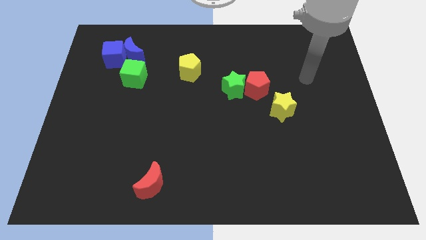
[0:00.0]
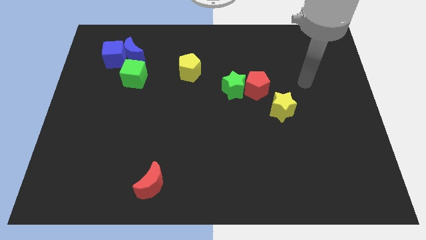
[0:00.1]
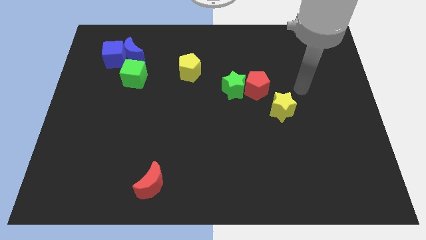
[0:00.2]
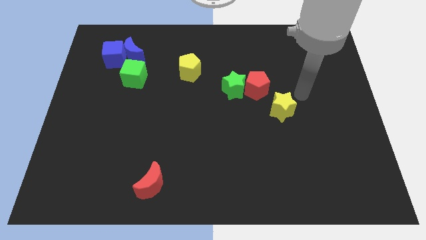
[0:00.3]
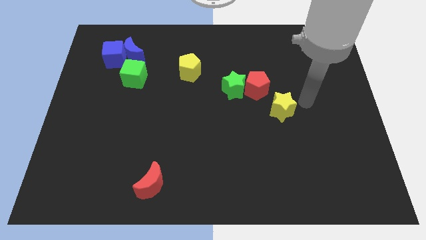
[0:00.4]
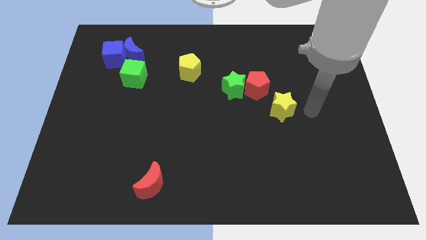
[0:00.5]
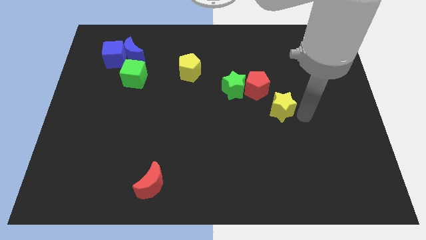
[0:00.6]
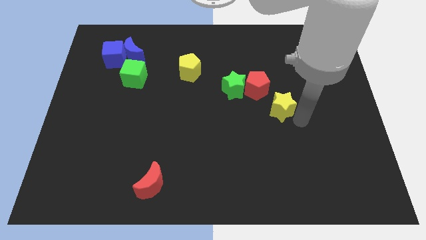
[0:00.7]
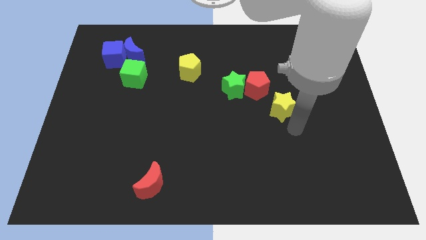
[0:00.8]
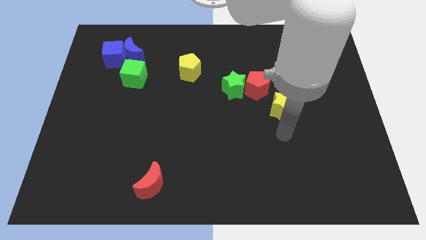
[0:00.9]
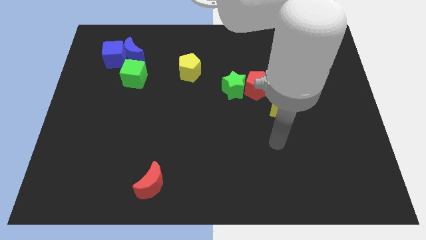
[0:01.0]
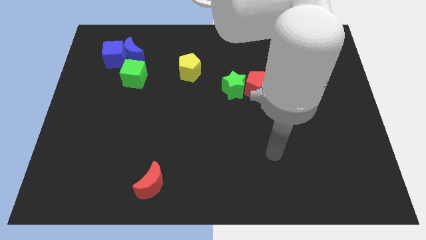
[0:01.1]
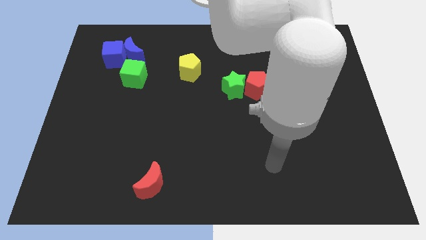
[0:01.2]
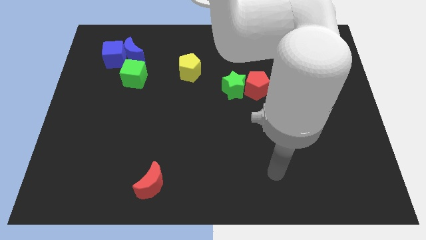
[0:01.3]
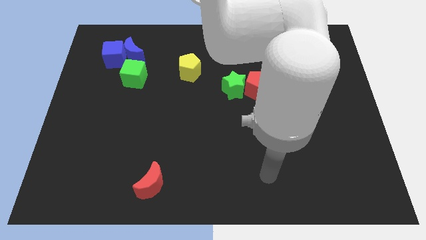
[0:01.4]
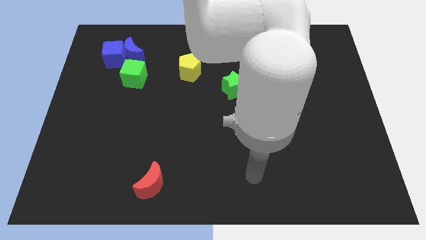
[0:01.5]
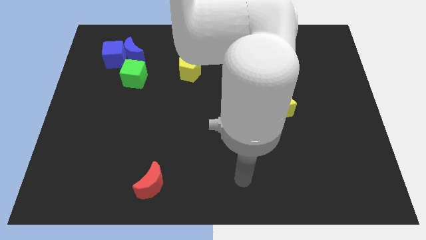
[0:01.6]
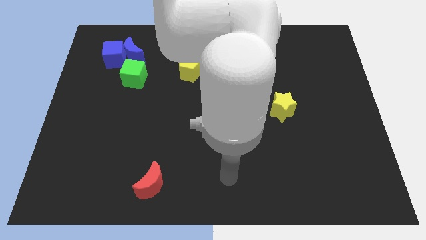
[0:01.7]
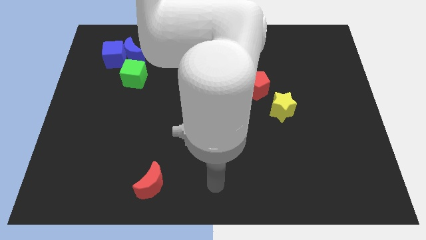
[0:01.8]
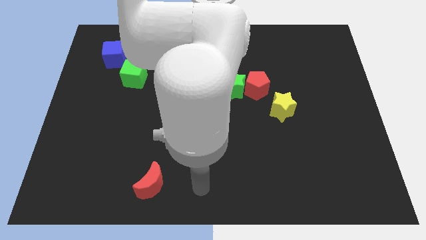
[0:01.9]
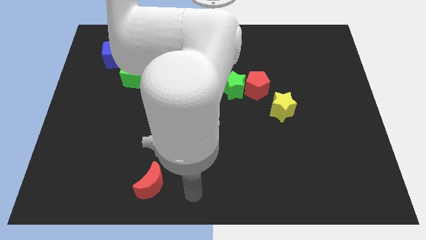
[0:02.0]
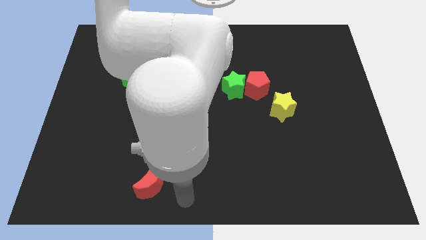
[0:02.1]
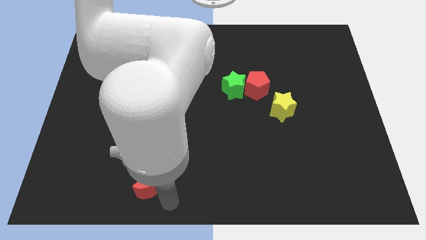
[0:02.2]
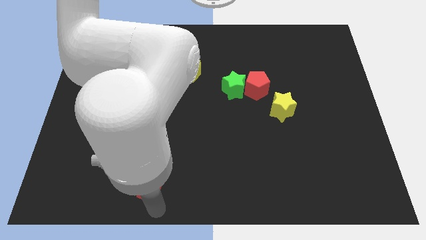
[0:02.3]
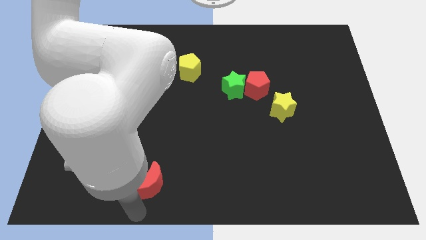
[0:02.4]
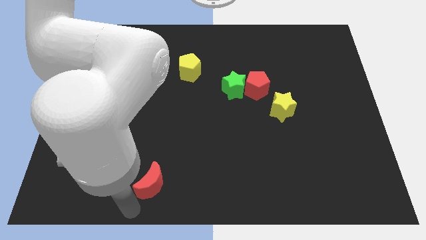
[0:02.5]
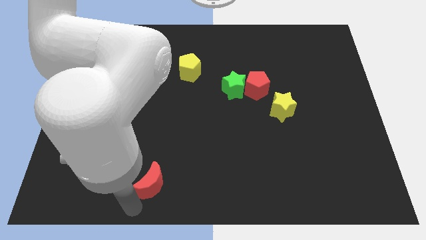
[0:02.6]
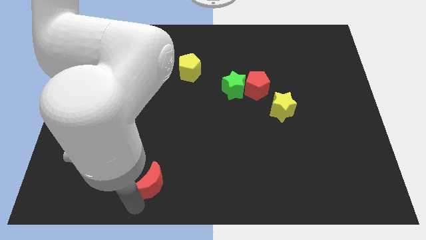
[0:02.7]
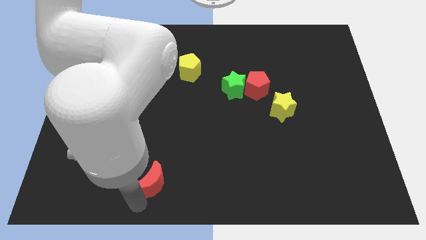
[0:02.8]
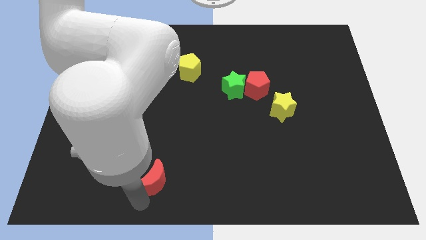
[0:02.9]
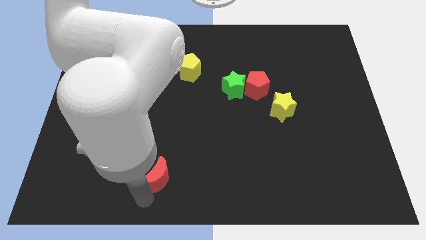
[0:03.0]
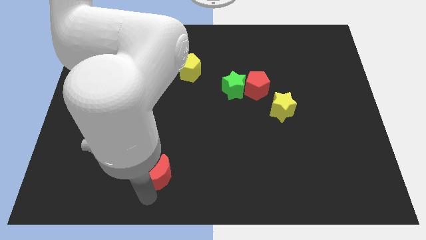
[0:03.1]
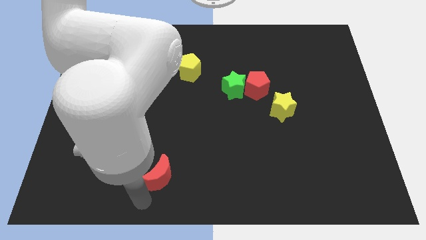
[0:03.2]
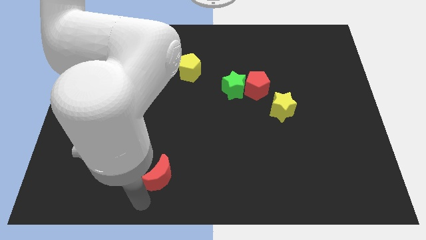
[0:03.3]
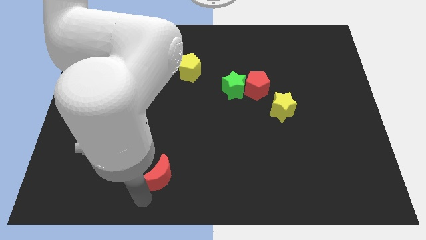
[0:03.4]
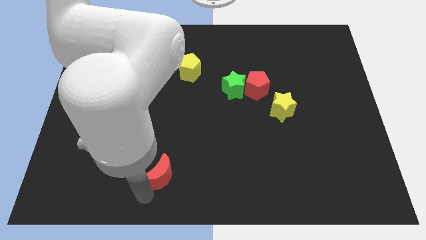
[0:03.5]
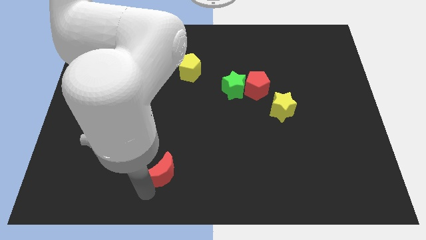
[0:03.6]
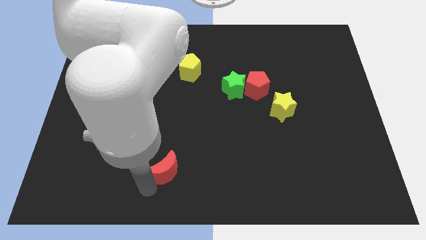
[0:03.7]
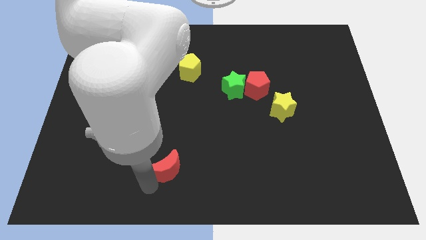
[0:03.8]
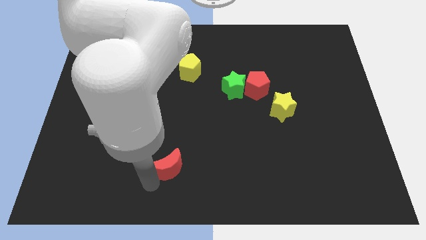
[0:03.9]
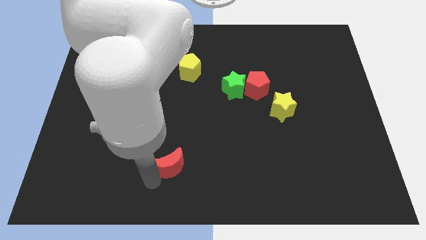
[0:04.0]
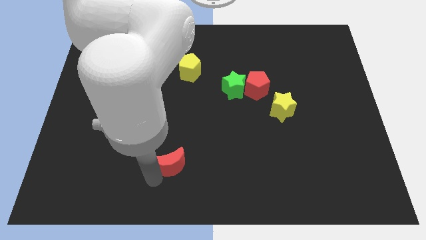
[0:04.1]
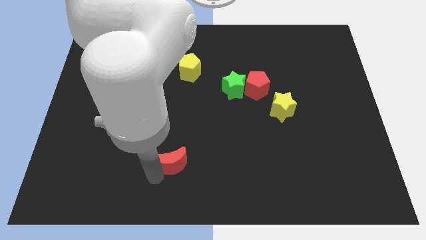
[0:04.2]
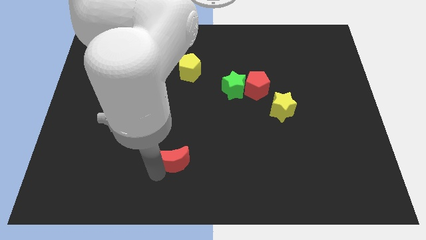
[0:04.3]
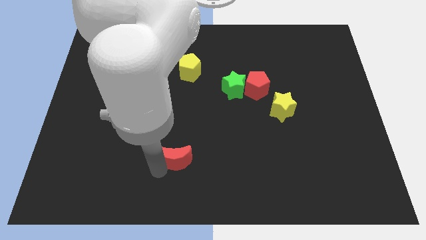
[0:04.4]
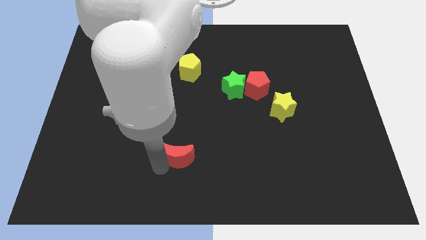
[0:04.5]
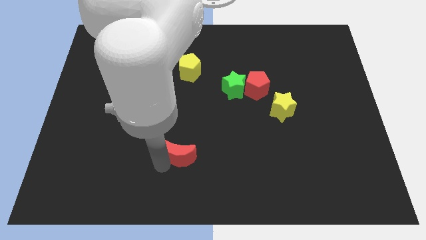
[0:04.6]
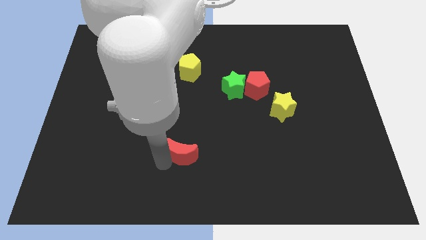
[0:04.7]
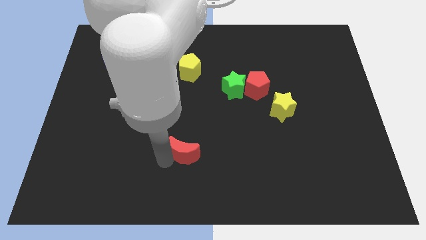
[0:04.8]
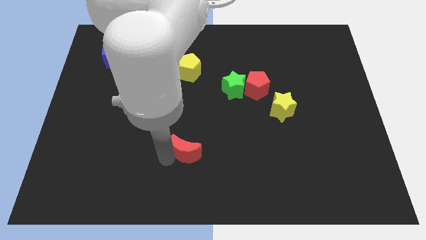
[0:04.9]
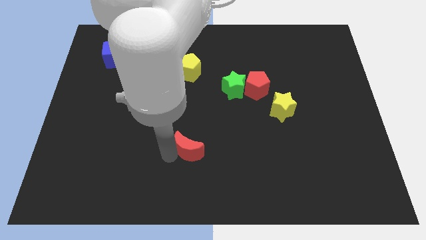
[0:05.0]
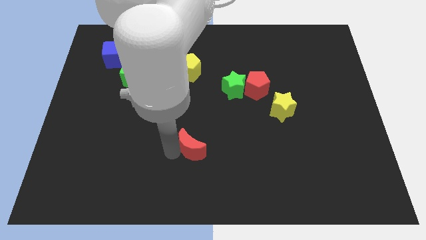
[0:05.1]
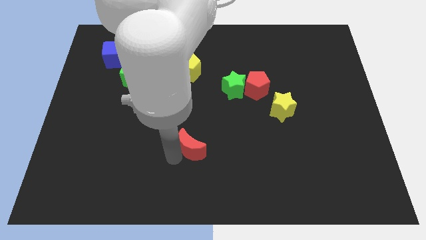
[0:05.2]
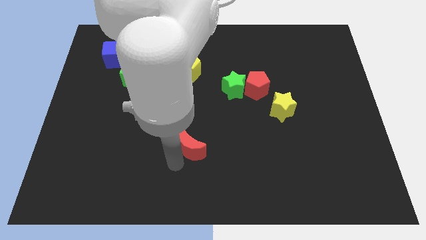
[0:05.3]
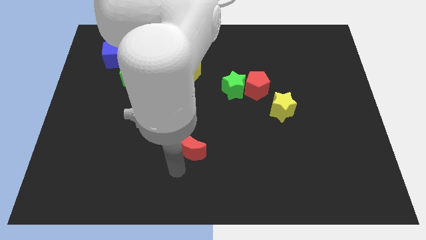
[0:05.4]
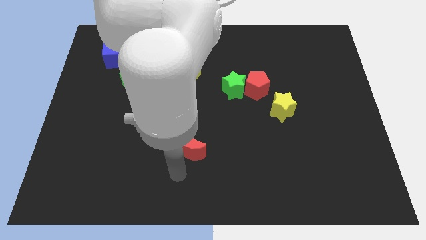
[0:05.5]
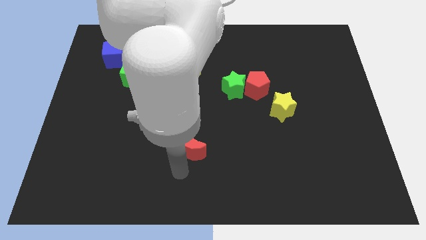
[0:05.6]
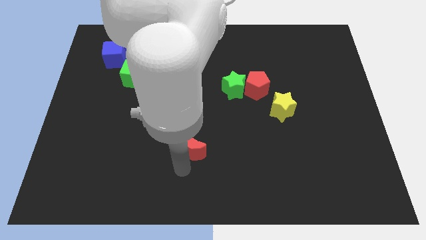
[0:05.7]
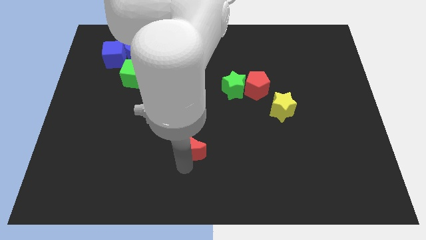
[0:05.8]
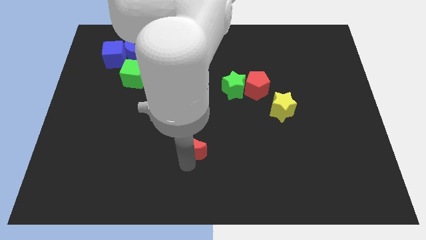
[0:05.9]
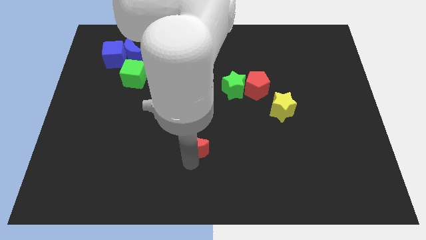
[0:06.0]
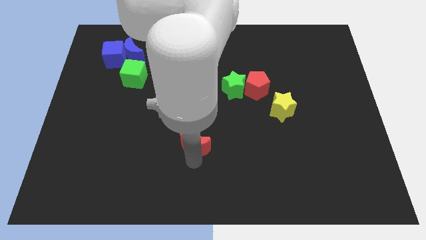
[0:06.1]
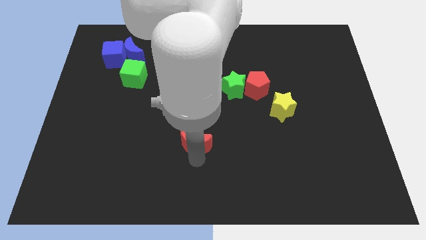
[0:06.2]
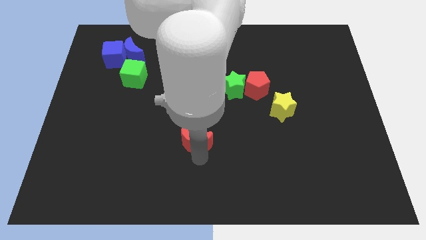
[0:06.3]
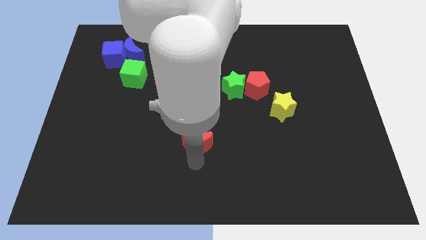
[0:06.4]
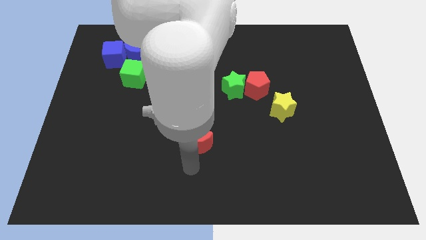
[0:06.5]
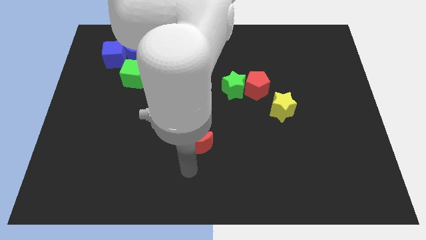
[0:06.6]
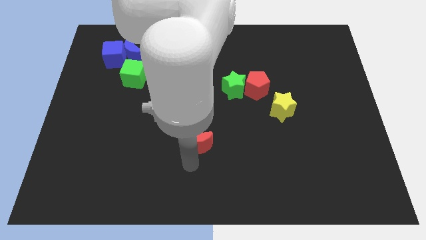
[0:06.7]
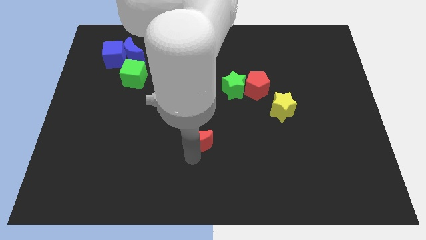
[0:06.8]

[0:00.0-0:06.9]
put the red moon to the center

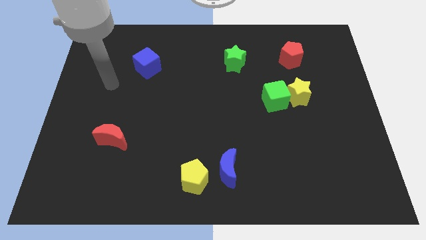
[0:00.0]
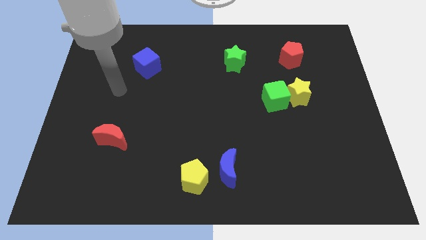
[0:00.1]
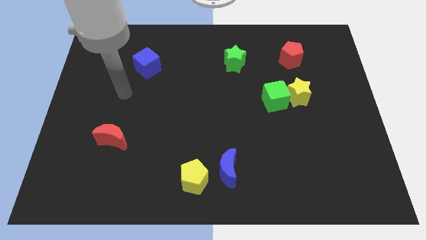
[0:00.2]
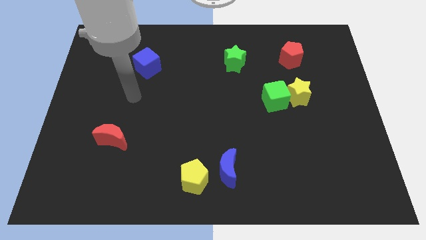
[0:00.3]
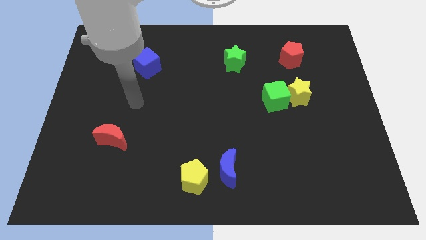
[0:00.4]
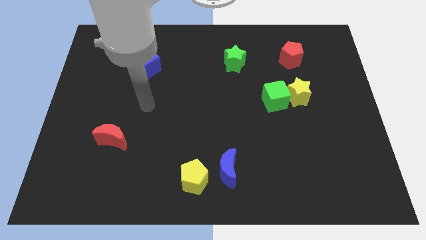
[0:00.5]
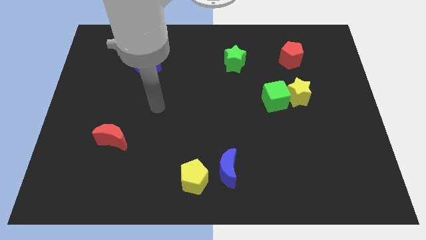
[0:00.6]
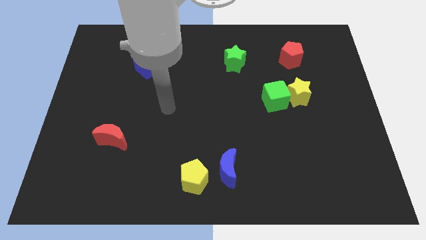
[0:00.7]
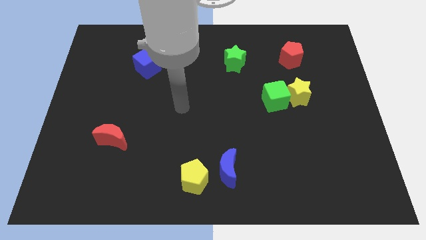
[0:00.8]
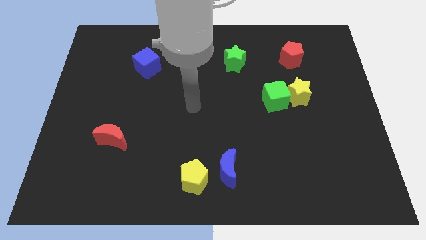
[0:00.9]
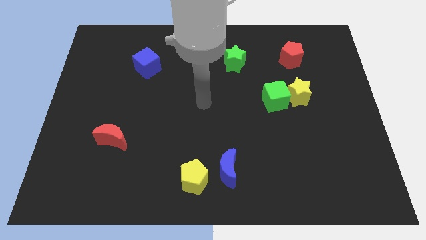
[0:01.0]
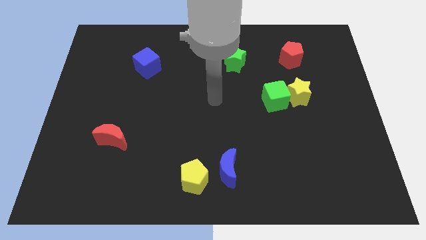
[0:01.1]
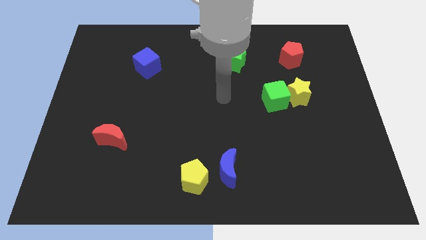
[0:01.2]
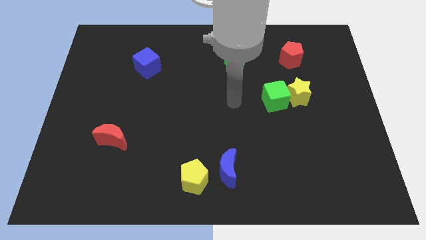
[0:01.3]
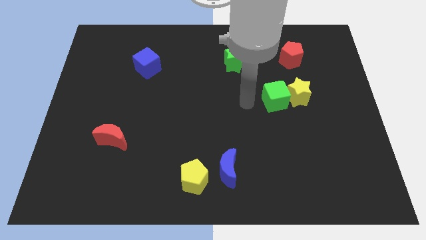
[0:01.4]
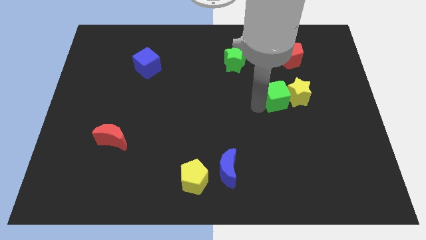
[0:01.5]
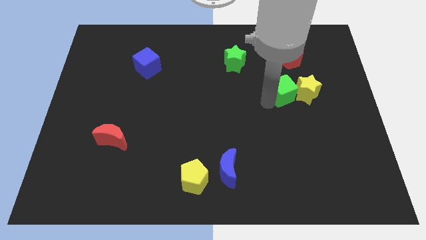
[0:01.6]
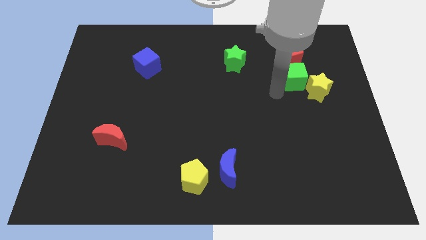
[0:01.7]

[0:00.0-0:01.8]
slide the yellow star to the center right
